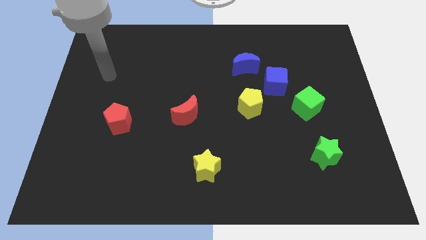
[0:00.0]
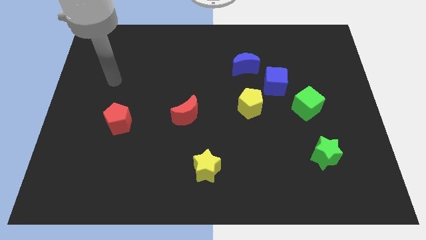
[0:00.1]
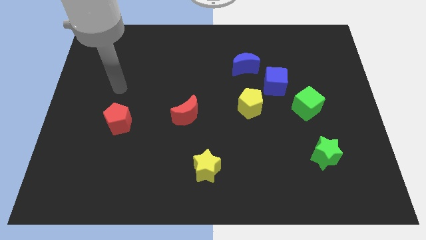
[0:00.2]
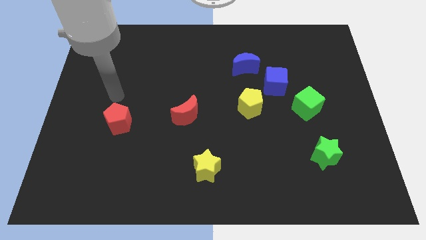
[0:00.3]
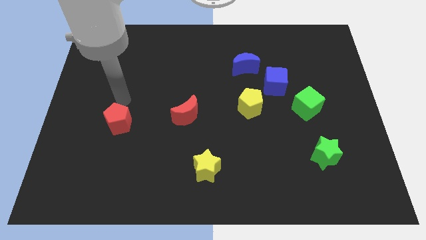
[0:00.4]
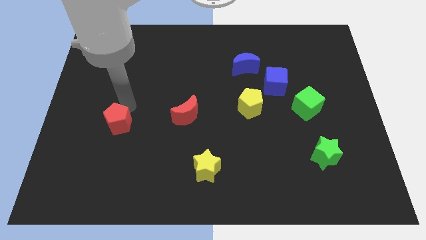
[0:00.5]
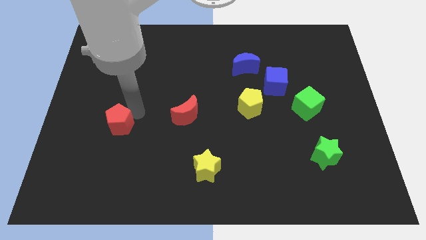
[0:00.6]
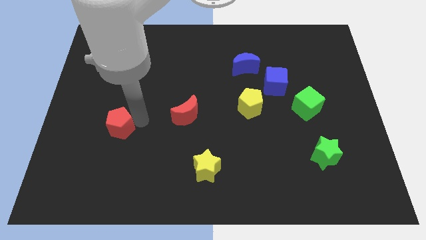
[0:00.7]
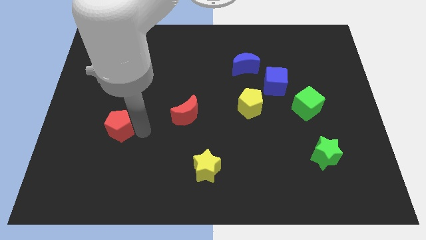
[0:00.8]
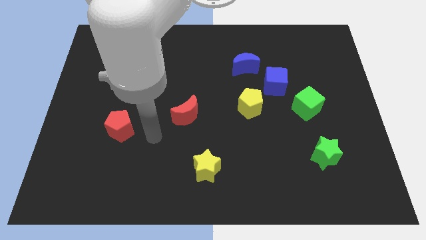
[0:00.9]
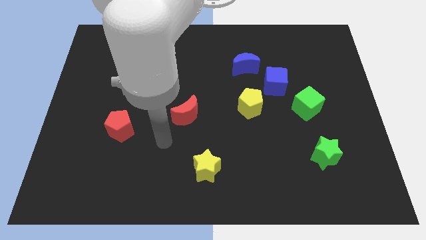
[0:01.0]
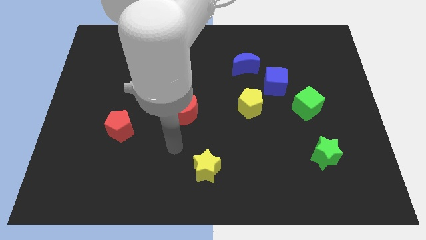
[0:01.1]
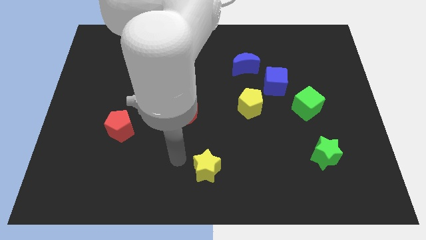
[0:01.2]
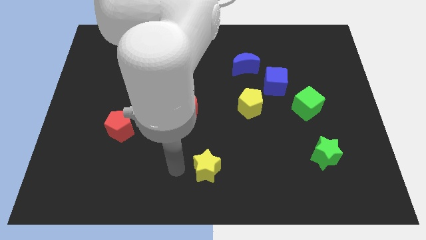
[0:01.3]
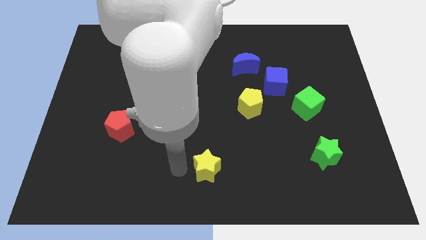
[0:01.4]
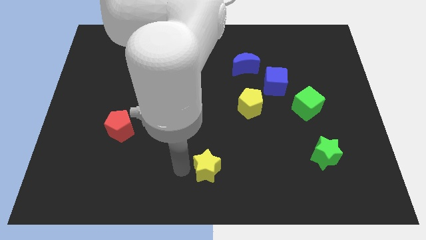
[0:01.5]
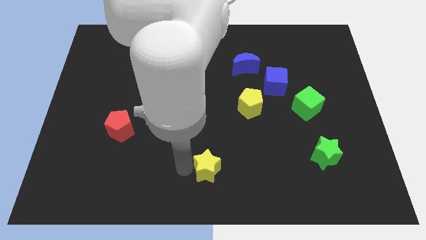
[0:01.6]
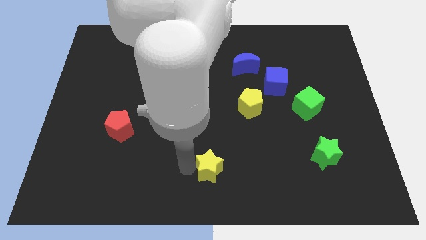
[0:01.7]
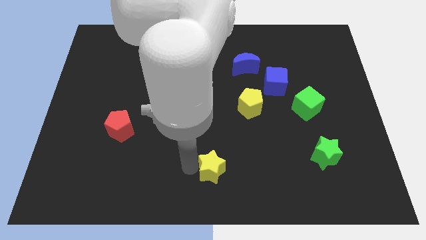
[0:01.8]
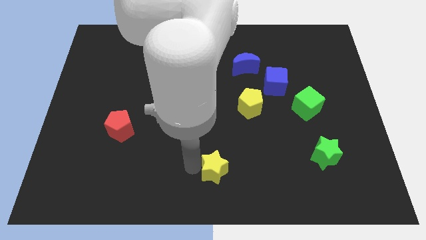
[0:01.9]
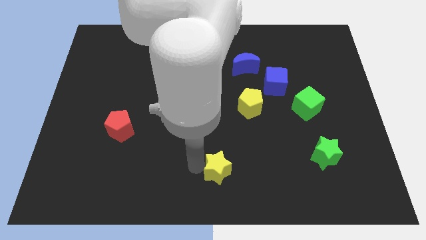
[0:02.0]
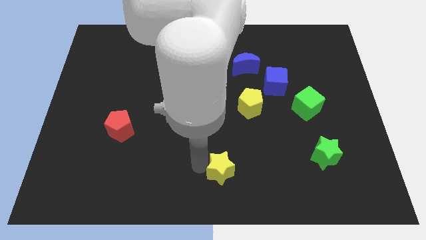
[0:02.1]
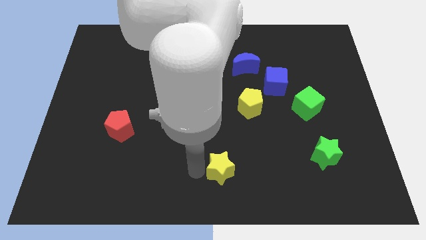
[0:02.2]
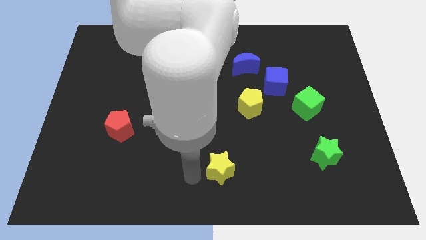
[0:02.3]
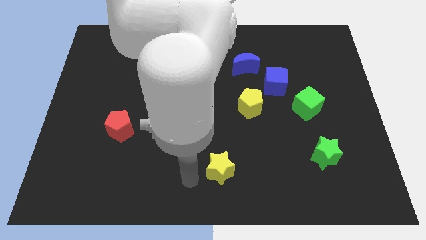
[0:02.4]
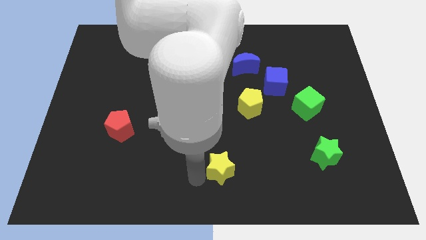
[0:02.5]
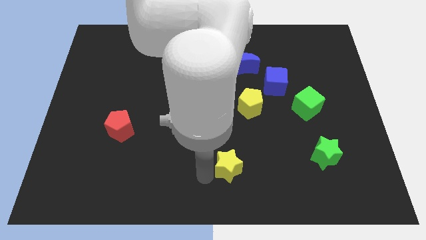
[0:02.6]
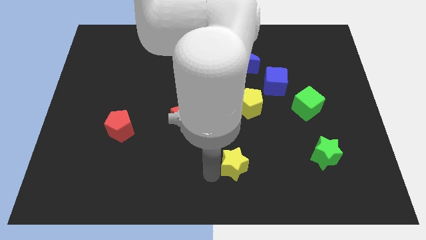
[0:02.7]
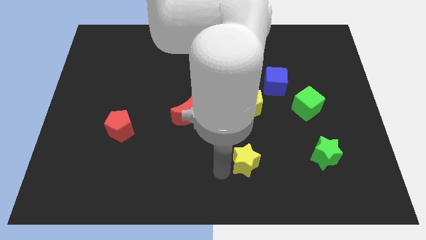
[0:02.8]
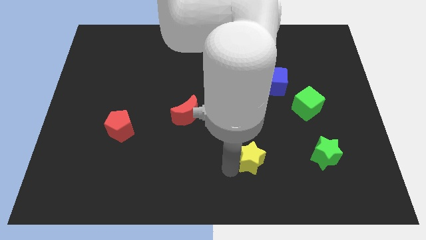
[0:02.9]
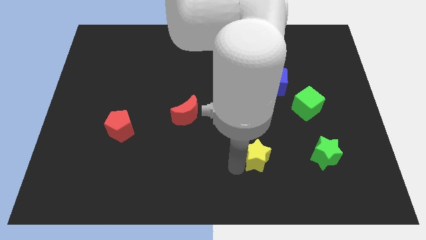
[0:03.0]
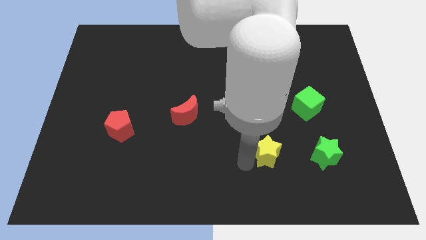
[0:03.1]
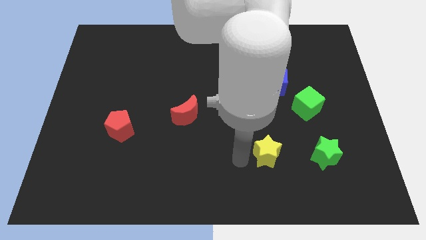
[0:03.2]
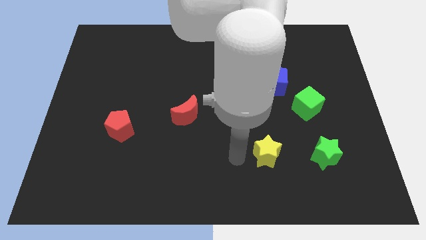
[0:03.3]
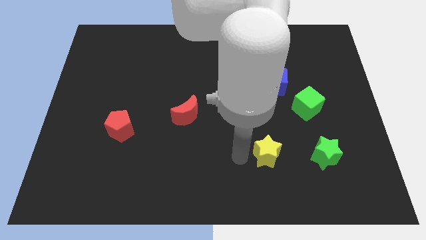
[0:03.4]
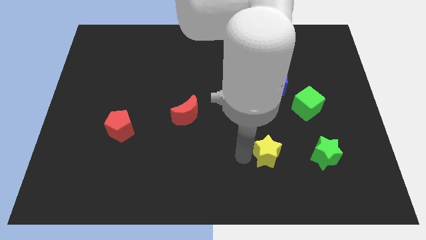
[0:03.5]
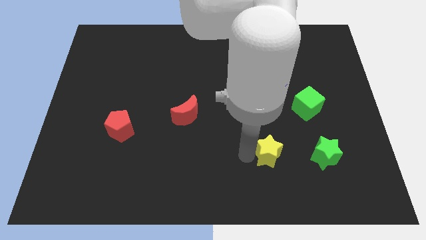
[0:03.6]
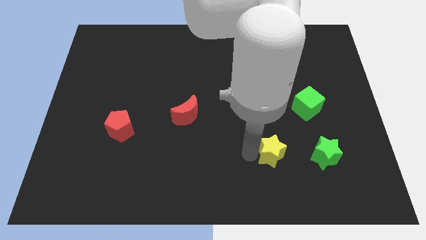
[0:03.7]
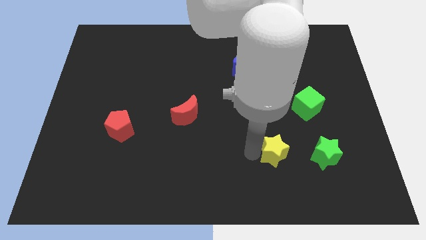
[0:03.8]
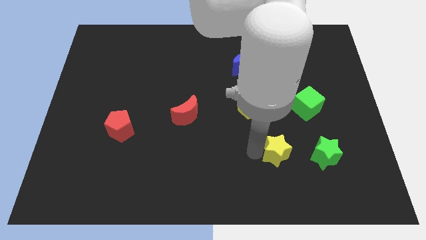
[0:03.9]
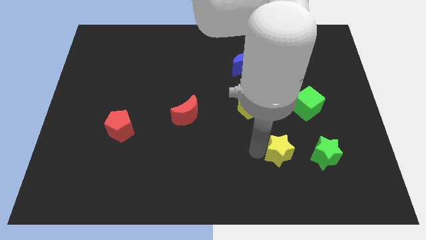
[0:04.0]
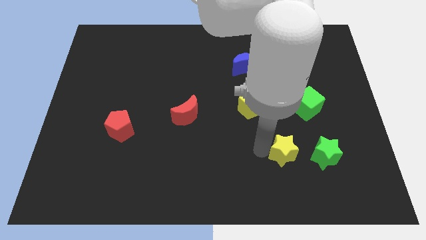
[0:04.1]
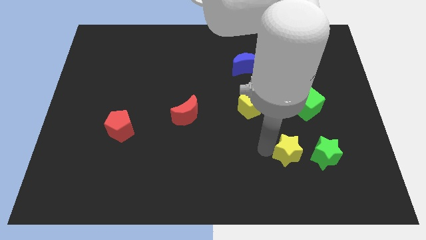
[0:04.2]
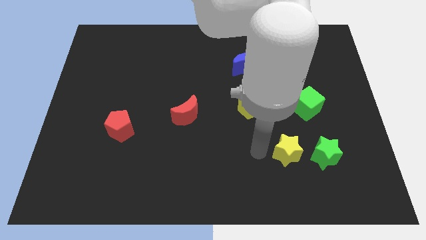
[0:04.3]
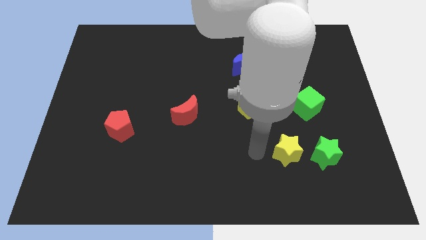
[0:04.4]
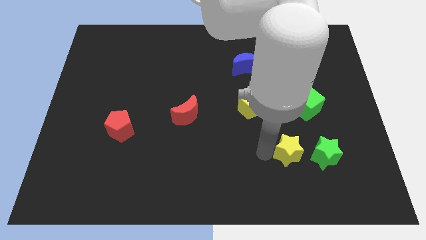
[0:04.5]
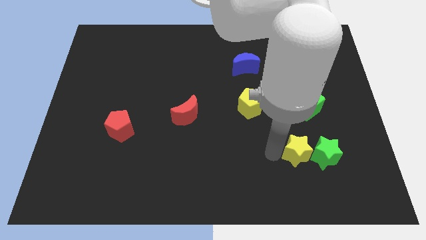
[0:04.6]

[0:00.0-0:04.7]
slide the yellow star to the green star

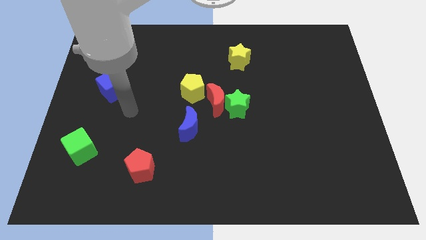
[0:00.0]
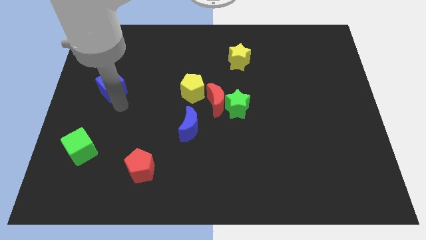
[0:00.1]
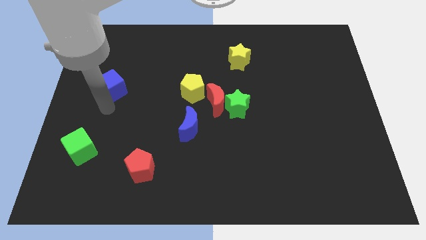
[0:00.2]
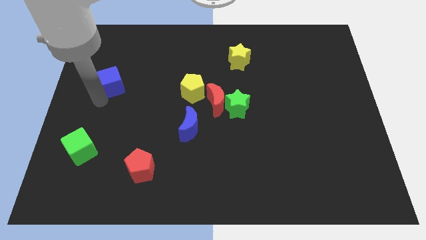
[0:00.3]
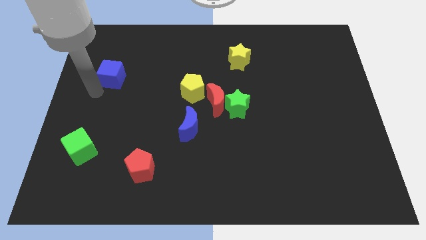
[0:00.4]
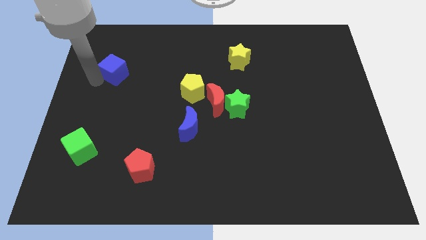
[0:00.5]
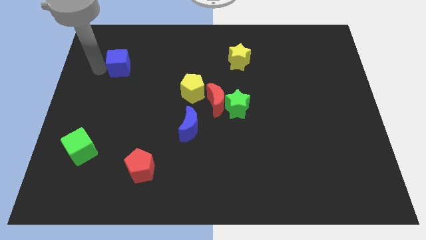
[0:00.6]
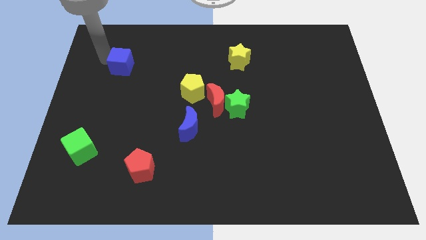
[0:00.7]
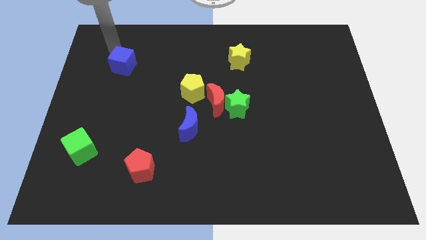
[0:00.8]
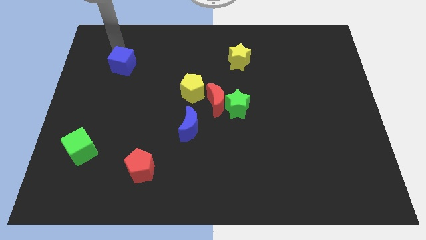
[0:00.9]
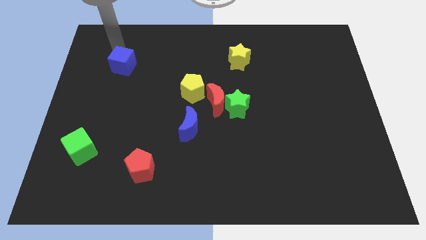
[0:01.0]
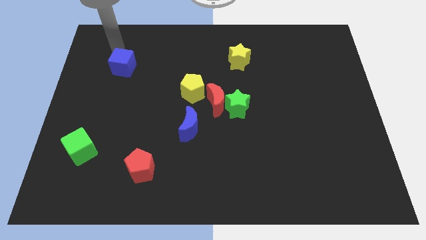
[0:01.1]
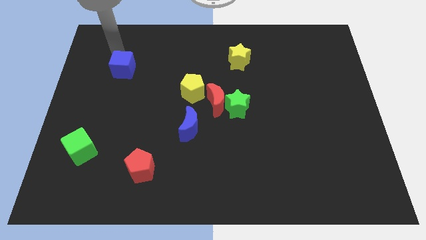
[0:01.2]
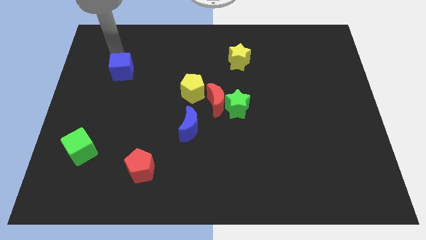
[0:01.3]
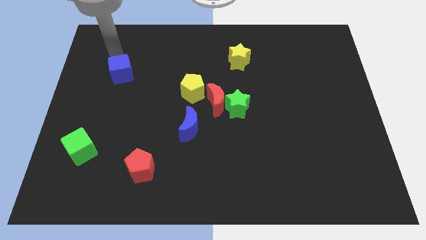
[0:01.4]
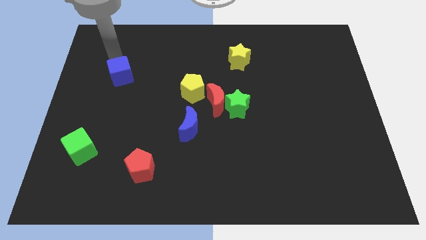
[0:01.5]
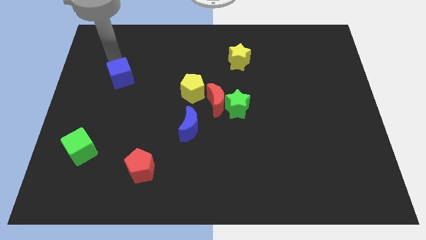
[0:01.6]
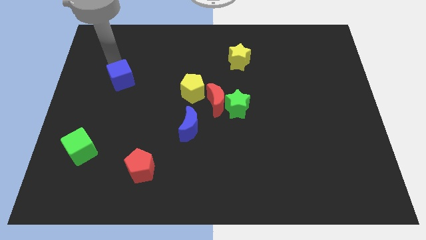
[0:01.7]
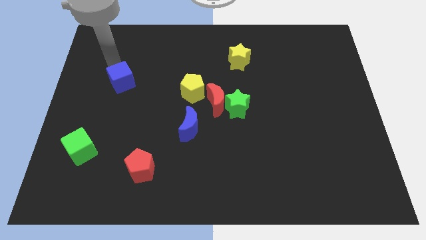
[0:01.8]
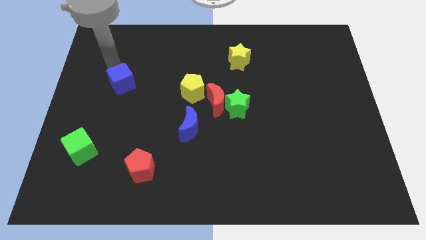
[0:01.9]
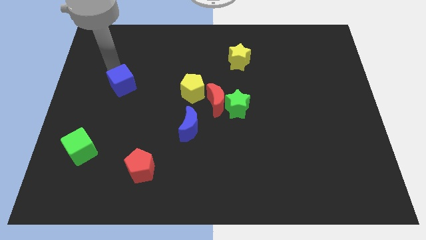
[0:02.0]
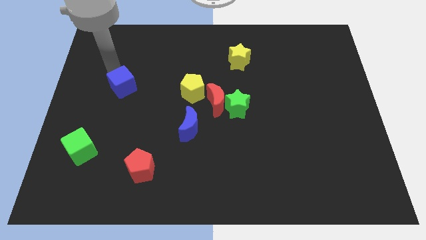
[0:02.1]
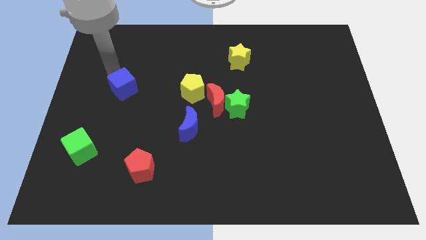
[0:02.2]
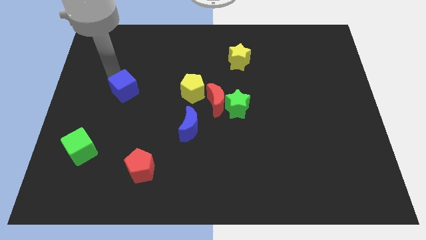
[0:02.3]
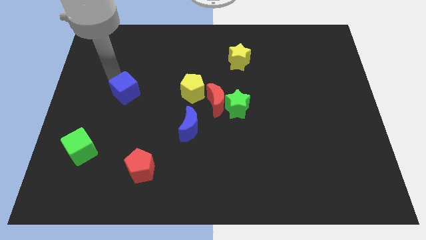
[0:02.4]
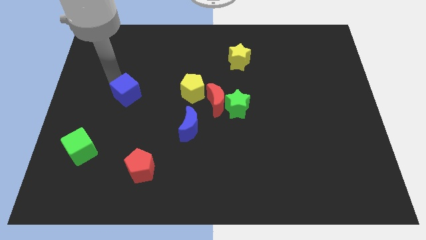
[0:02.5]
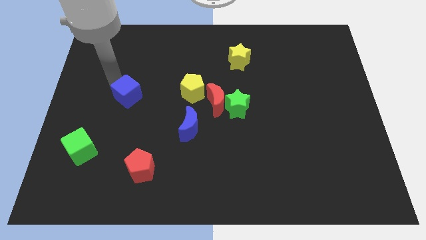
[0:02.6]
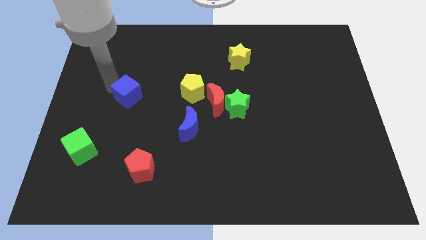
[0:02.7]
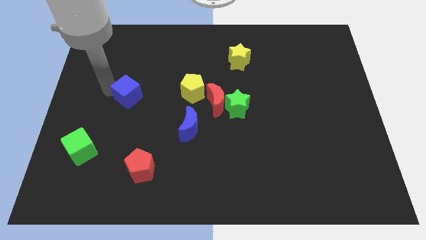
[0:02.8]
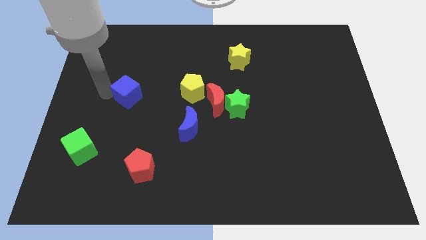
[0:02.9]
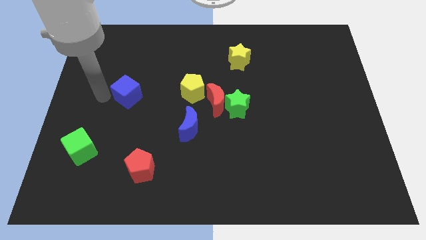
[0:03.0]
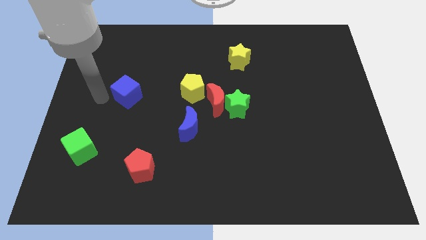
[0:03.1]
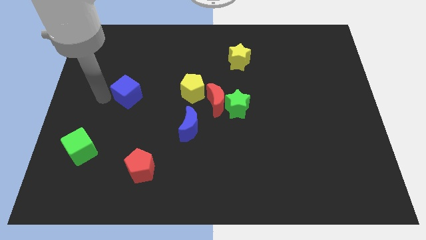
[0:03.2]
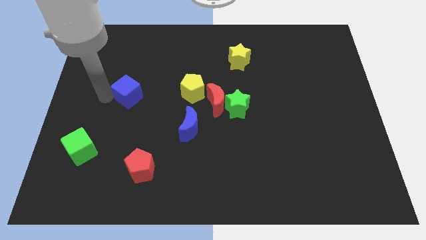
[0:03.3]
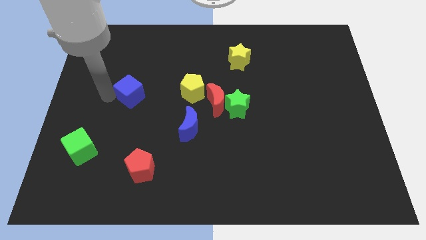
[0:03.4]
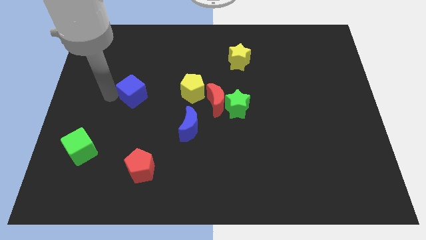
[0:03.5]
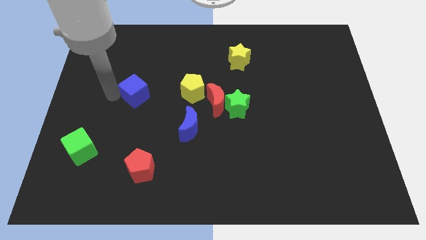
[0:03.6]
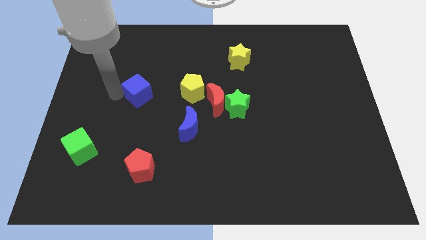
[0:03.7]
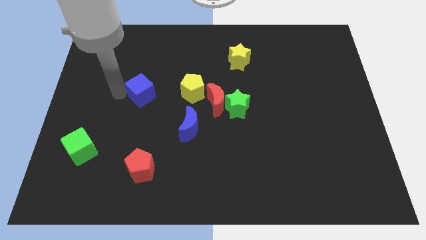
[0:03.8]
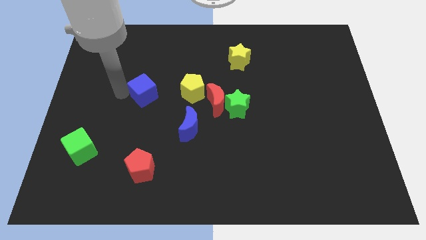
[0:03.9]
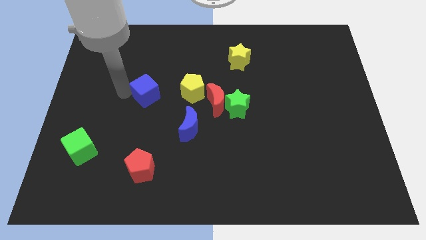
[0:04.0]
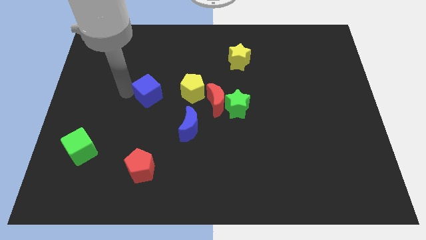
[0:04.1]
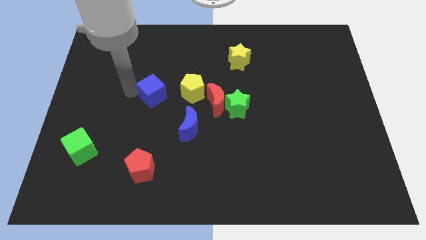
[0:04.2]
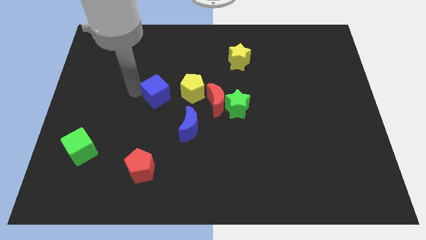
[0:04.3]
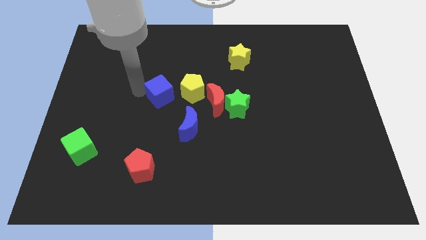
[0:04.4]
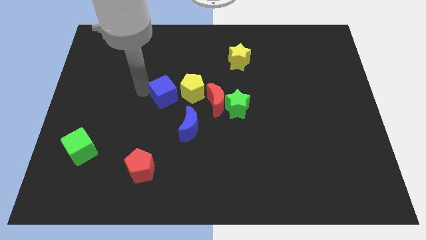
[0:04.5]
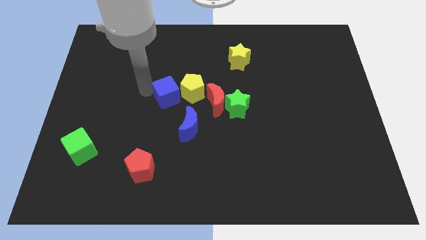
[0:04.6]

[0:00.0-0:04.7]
put the blue cube to the yellow pentagon
